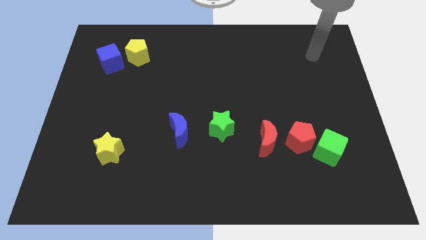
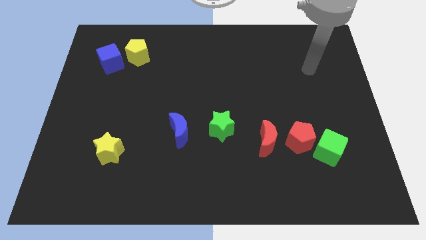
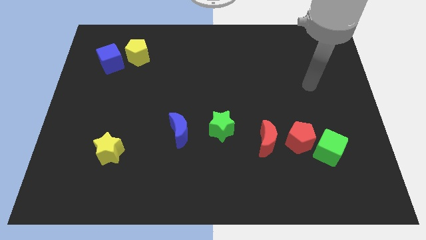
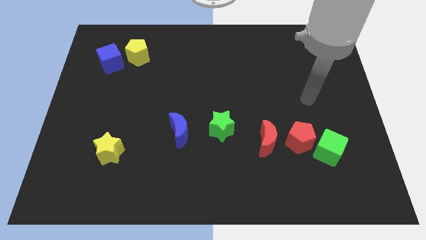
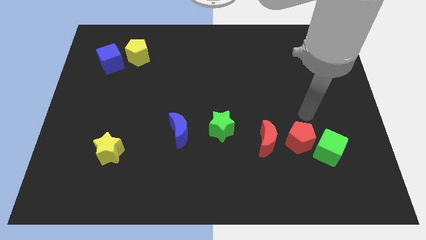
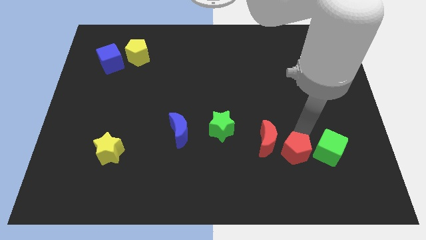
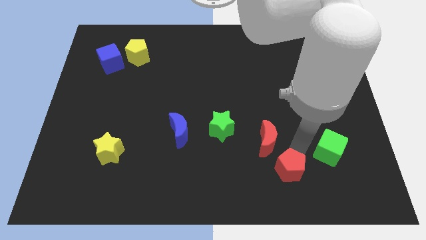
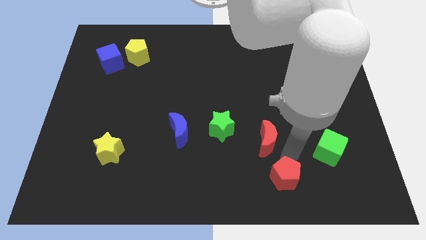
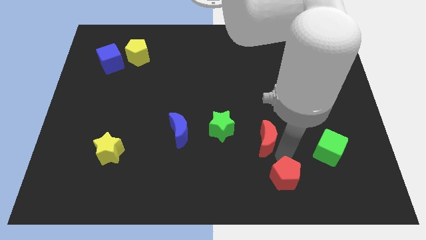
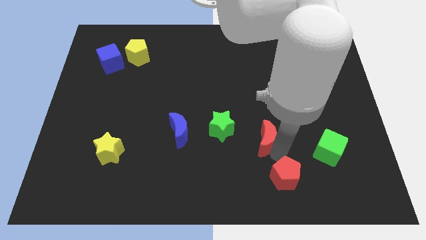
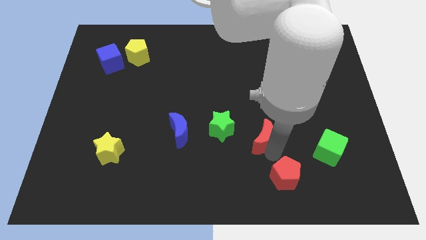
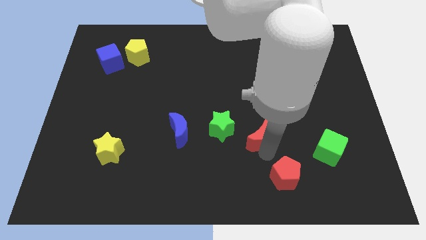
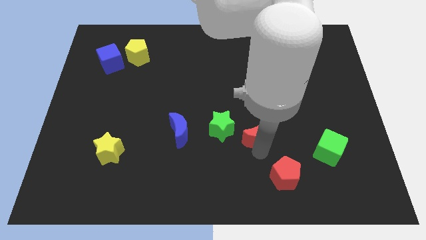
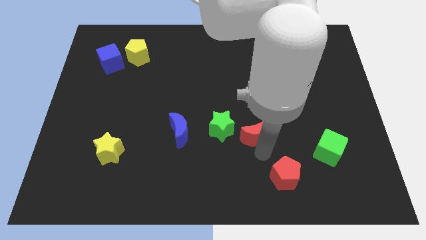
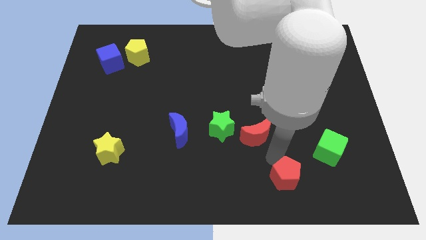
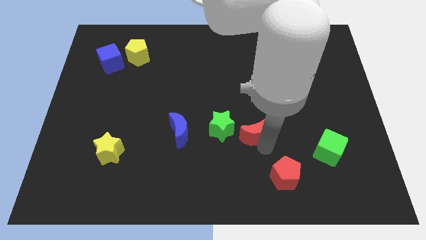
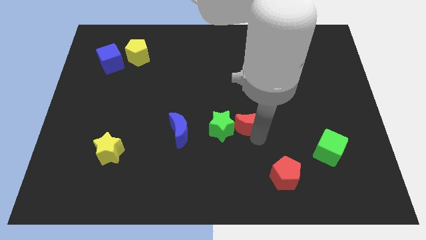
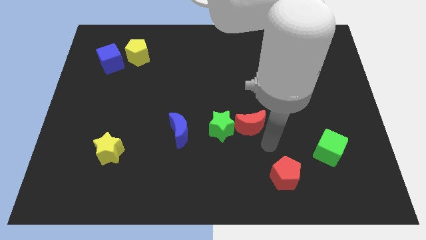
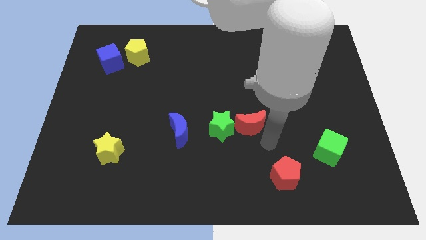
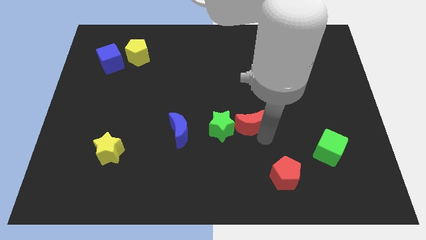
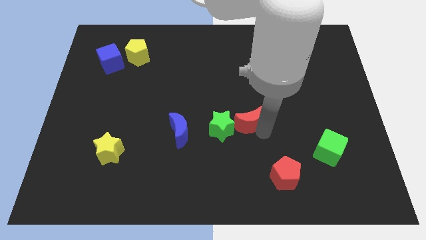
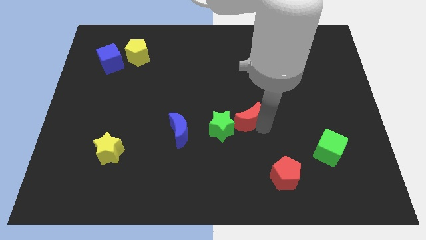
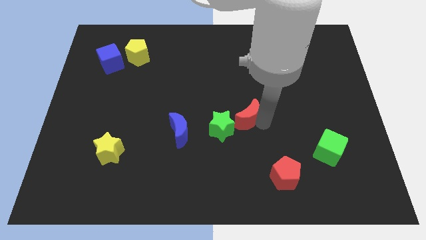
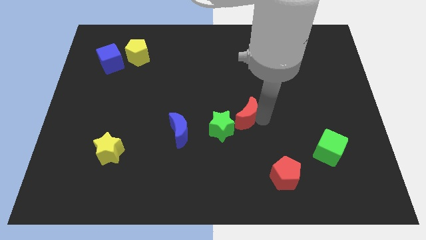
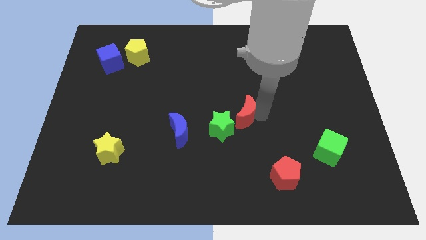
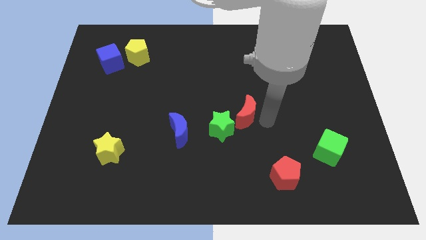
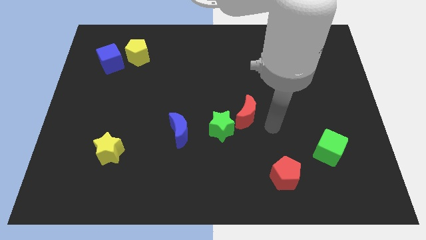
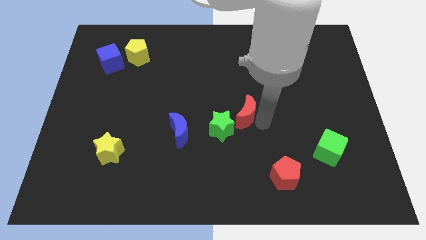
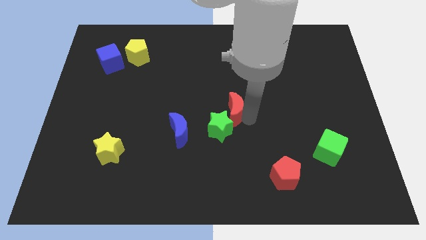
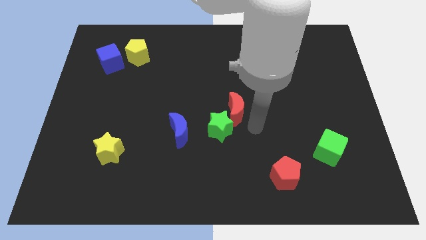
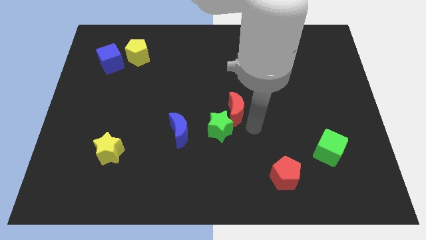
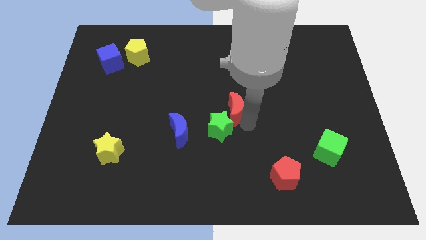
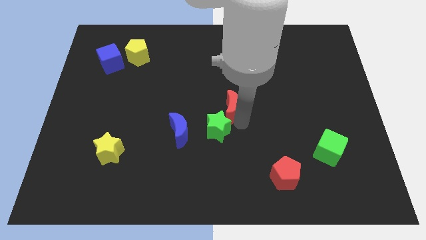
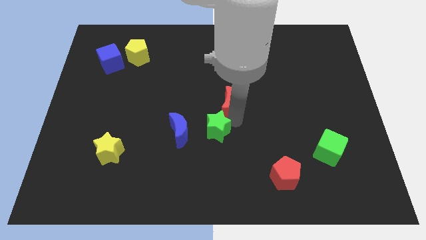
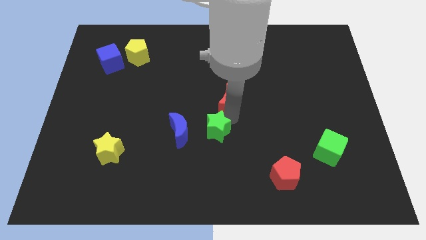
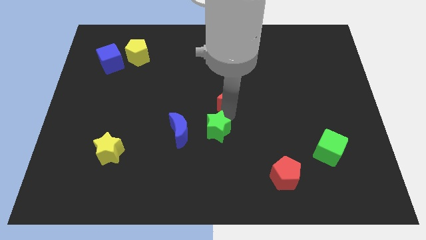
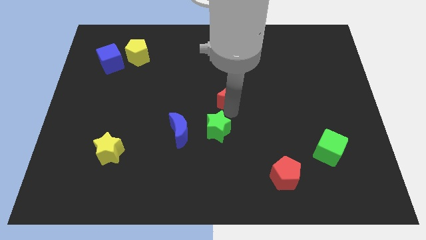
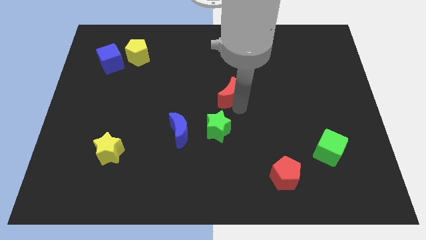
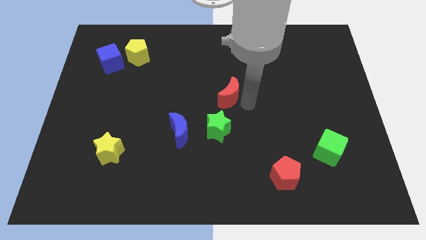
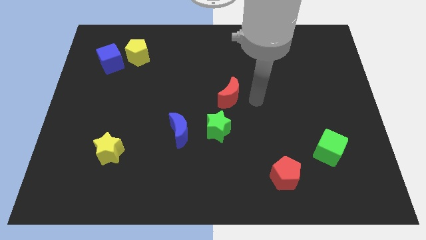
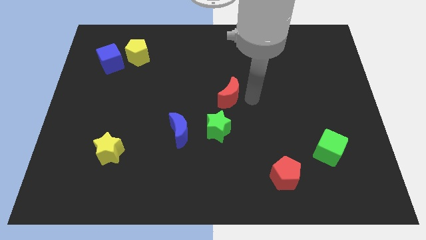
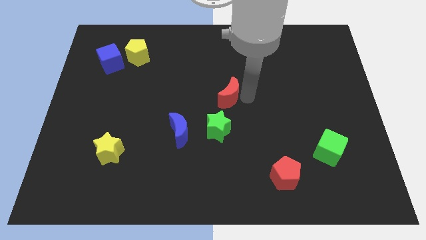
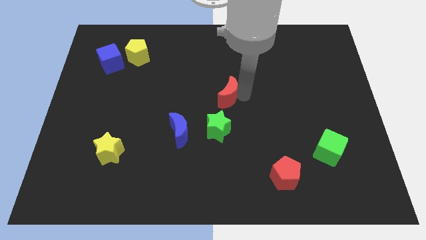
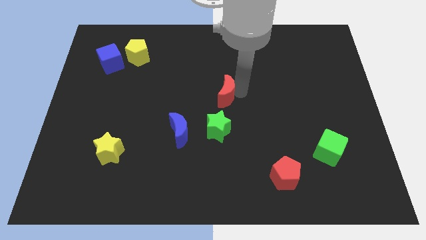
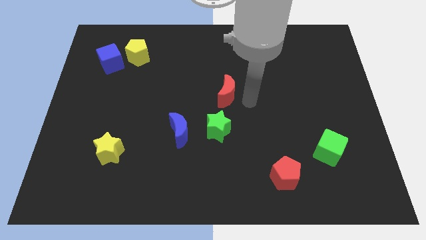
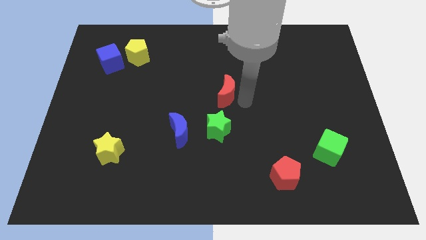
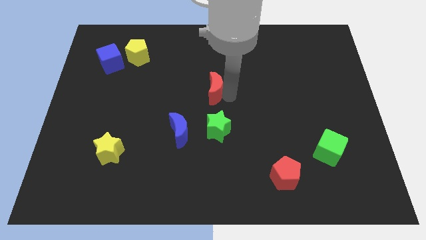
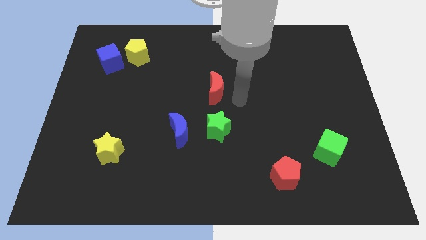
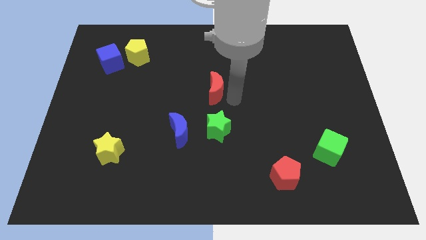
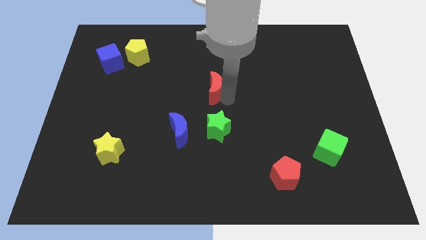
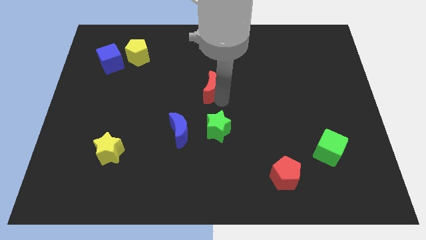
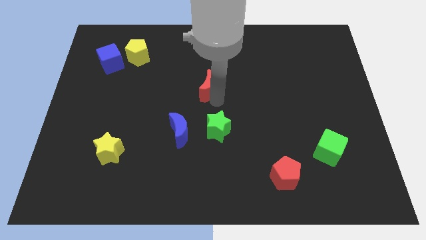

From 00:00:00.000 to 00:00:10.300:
push the red moon upwards and left

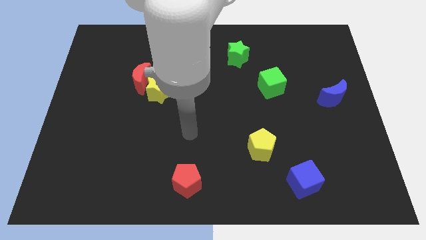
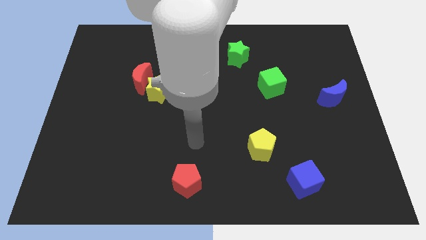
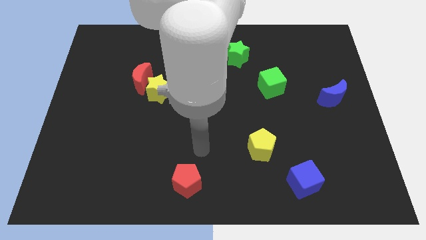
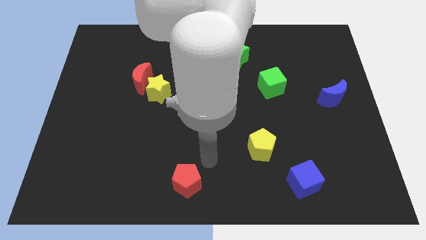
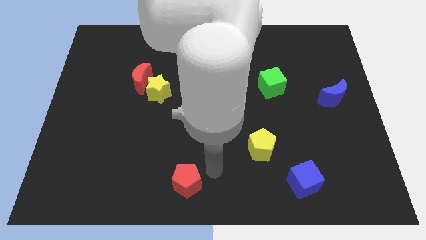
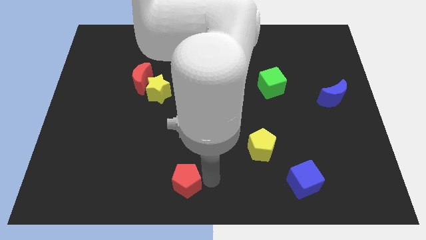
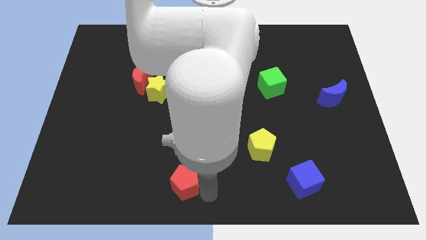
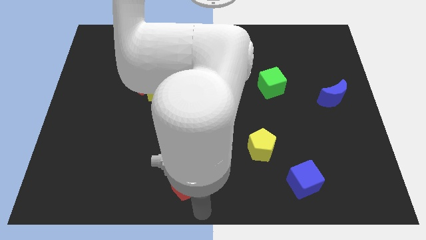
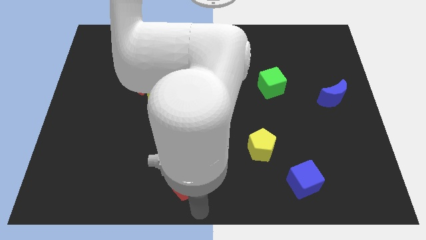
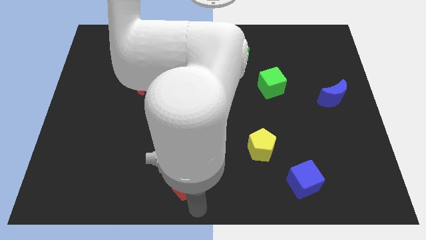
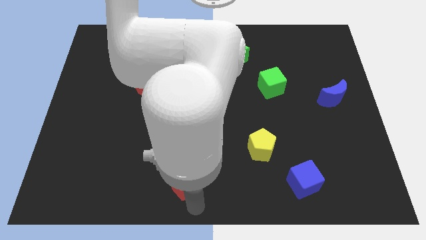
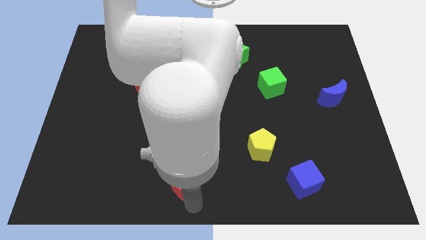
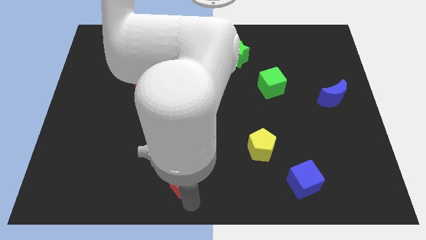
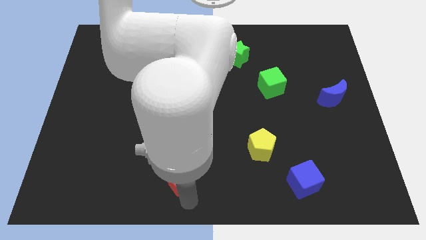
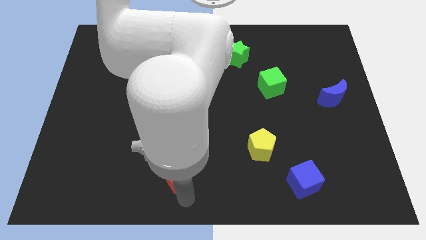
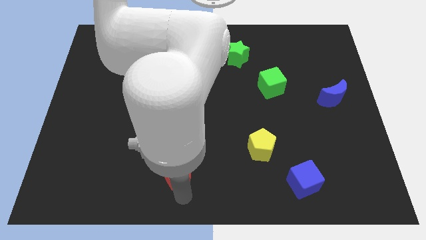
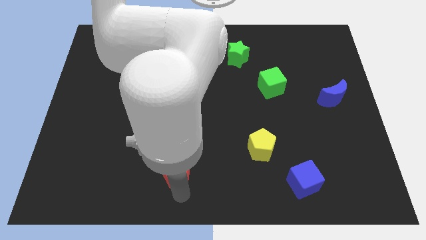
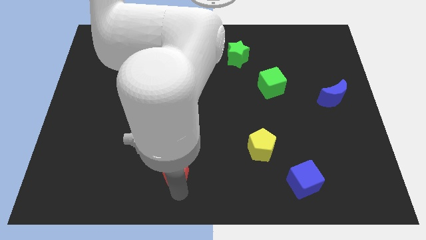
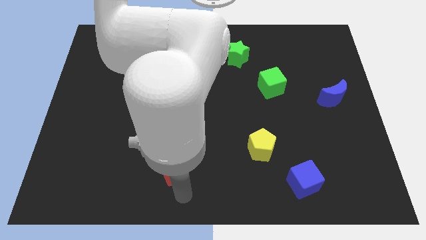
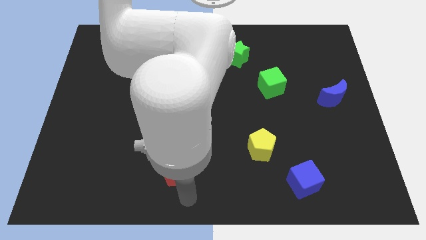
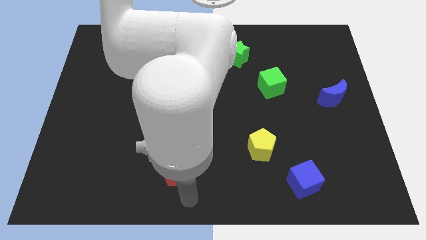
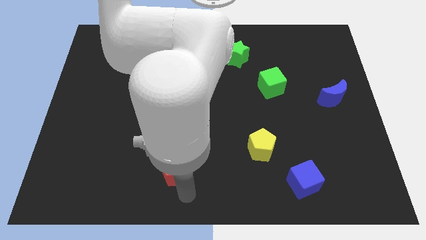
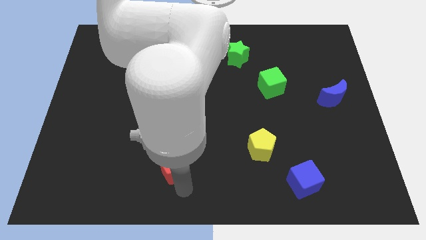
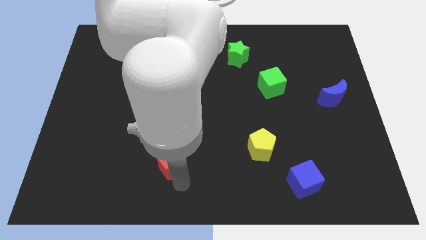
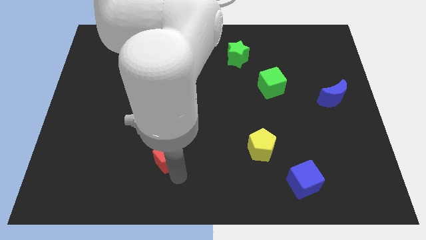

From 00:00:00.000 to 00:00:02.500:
push the red pentagon upwards and left slightly

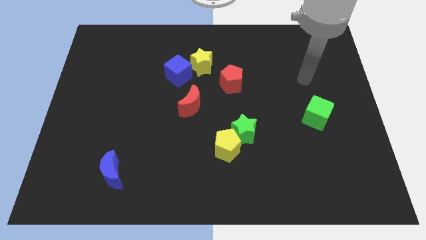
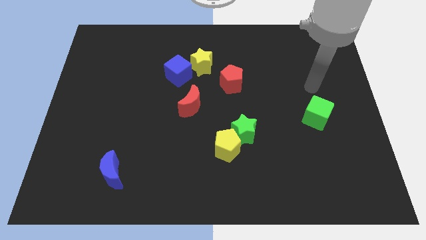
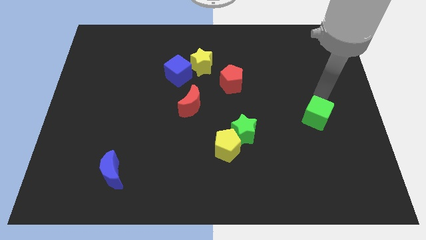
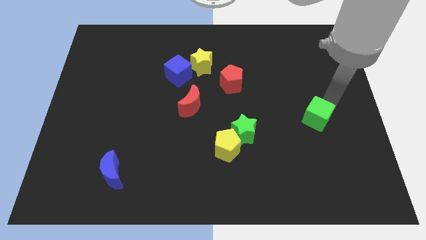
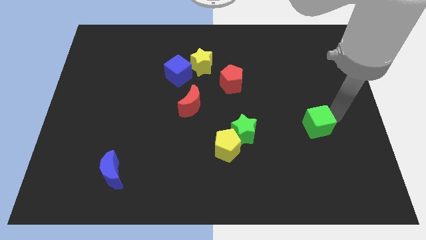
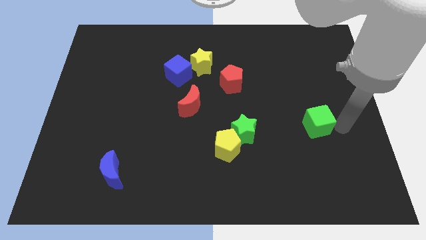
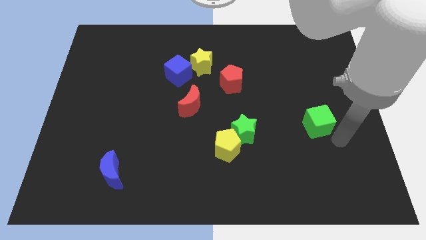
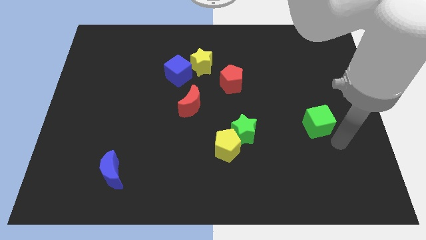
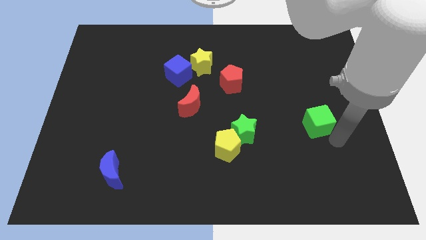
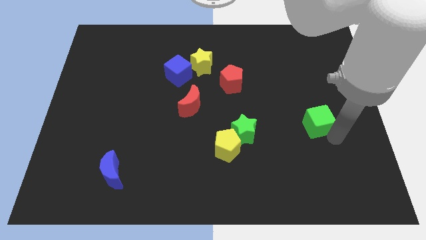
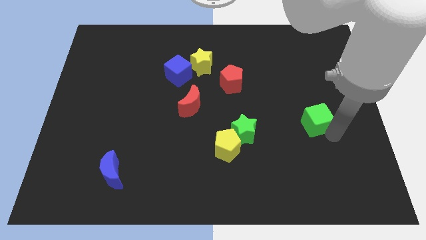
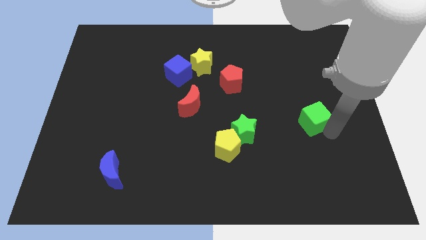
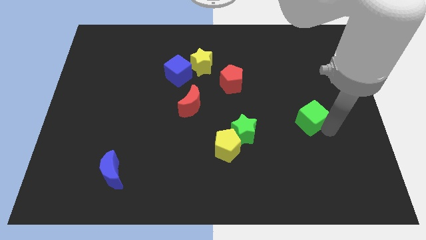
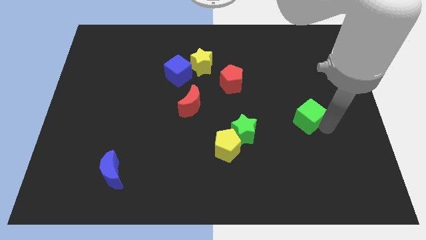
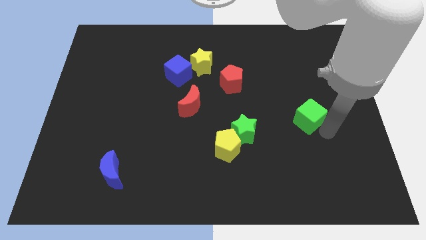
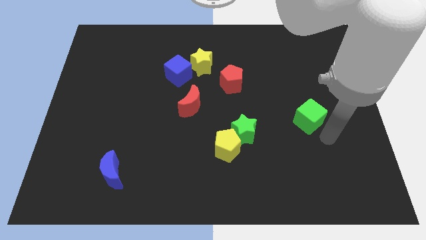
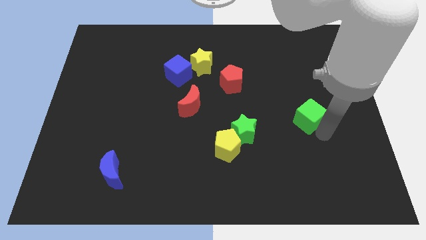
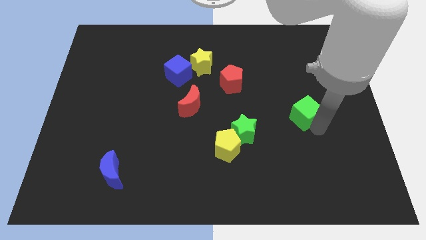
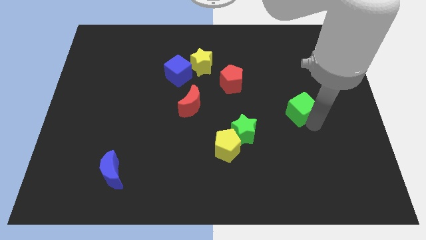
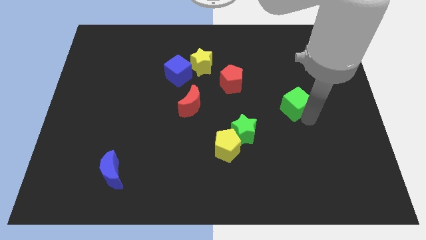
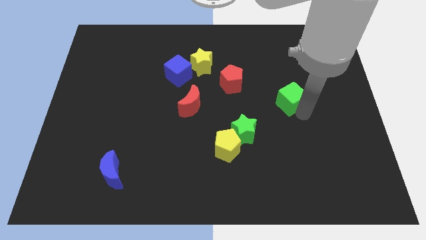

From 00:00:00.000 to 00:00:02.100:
push the green cube a little upwards and then left
